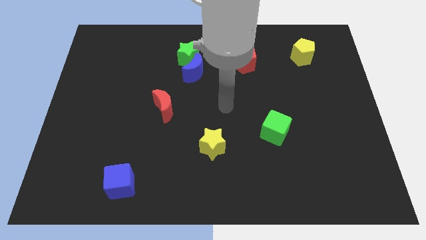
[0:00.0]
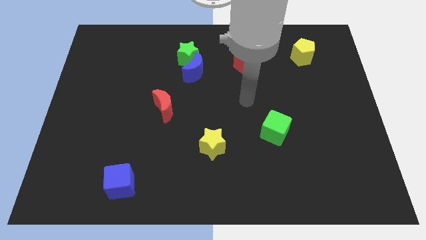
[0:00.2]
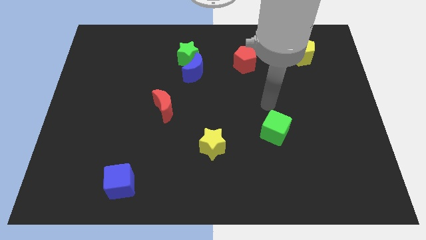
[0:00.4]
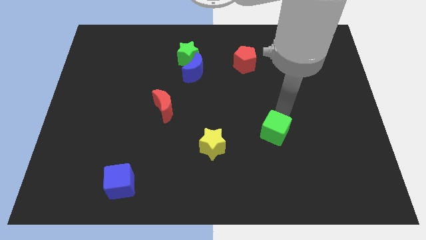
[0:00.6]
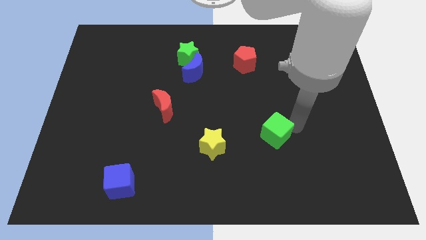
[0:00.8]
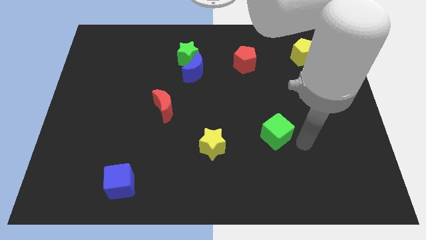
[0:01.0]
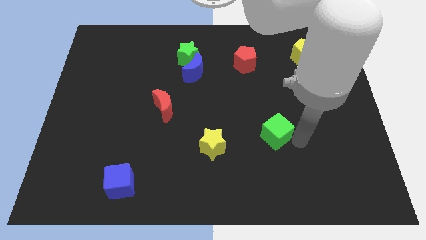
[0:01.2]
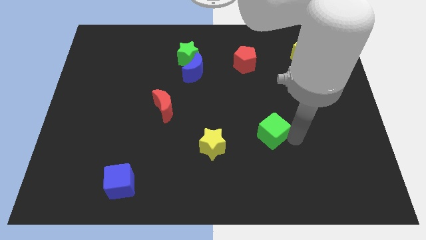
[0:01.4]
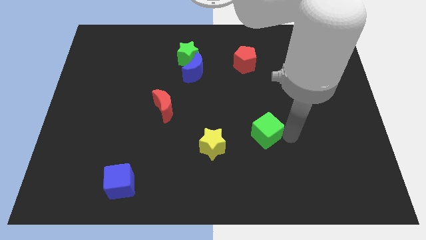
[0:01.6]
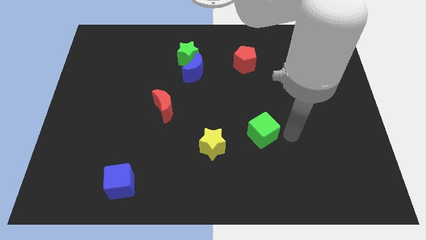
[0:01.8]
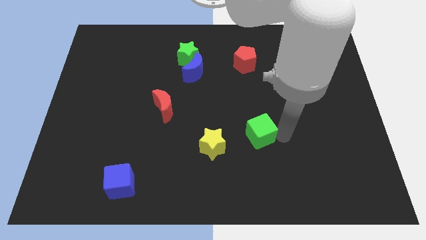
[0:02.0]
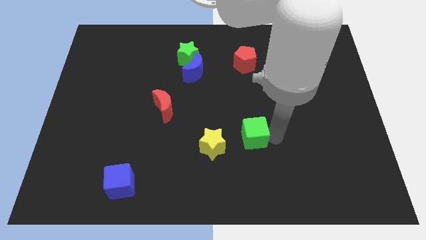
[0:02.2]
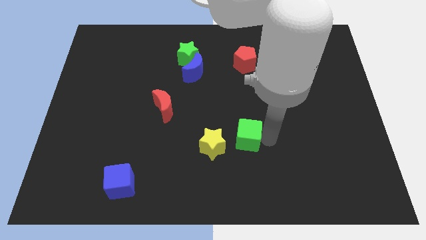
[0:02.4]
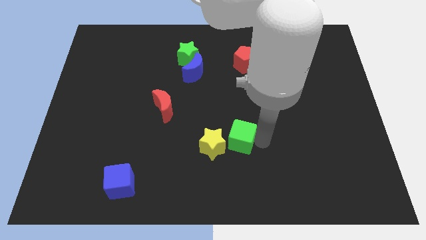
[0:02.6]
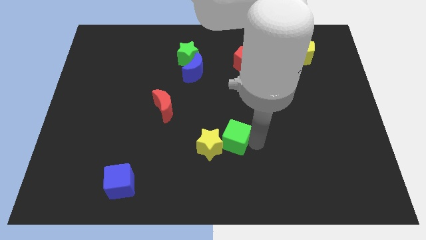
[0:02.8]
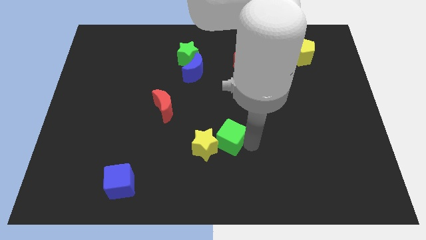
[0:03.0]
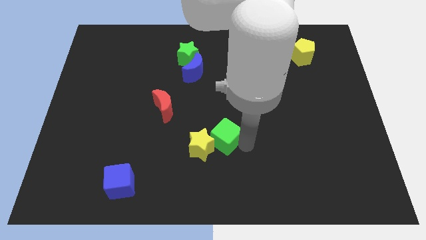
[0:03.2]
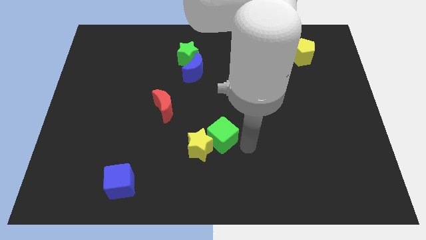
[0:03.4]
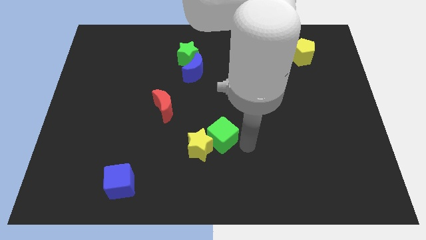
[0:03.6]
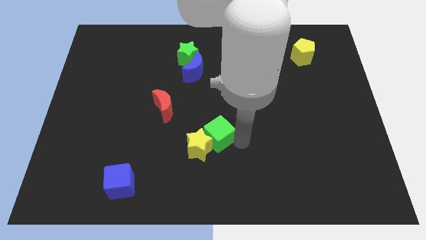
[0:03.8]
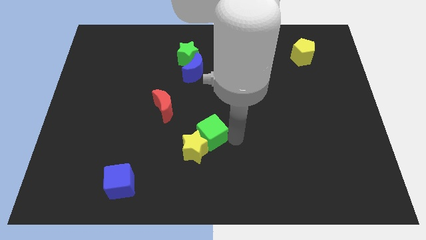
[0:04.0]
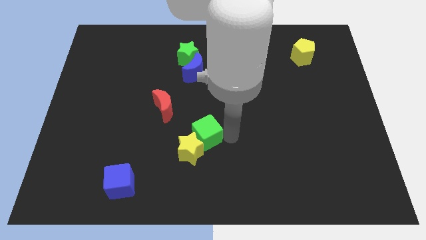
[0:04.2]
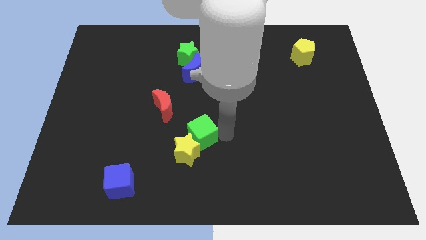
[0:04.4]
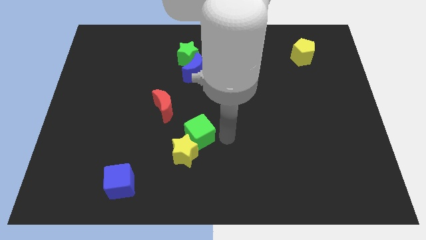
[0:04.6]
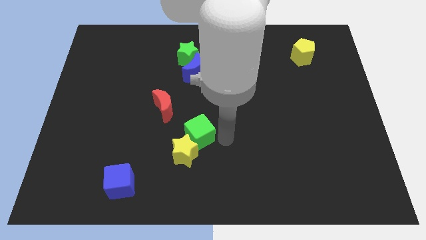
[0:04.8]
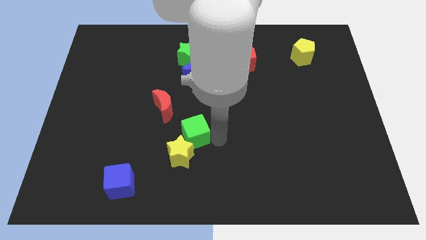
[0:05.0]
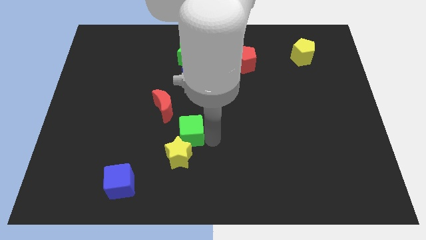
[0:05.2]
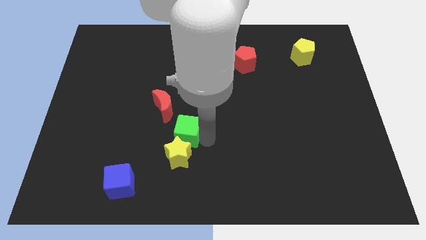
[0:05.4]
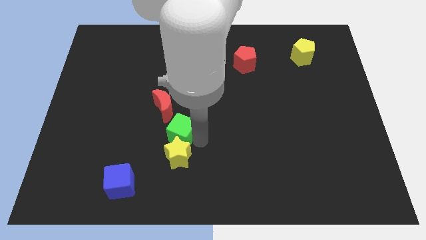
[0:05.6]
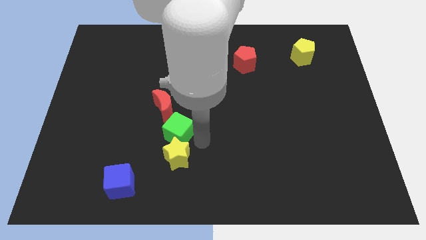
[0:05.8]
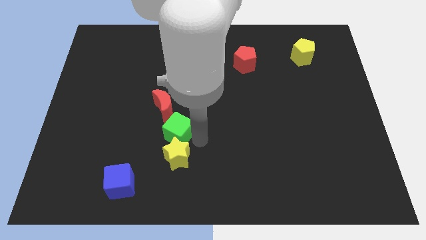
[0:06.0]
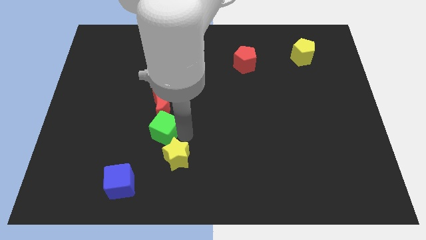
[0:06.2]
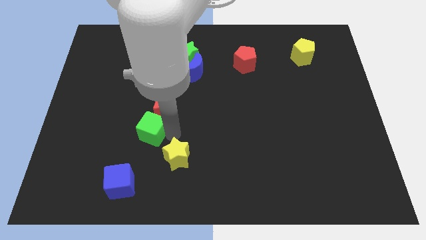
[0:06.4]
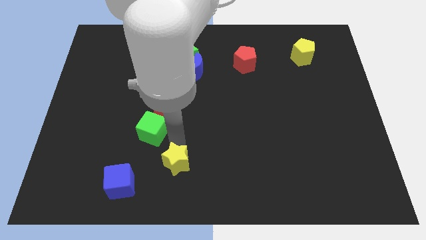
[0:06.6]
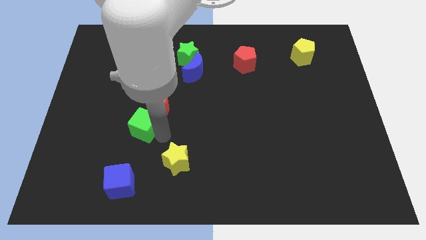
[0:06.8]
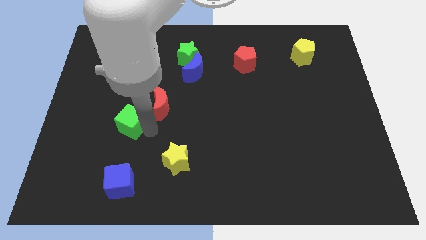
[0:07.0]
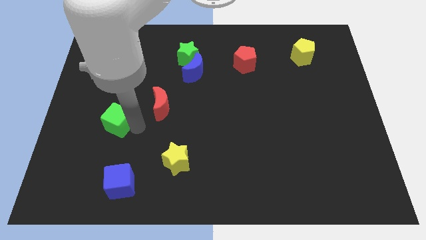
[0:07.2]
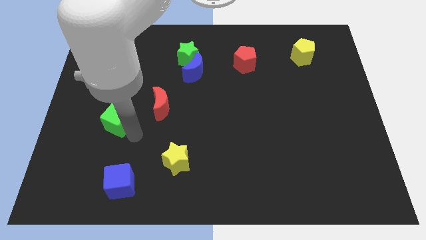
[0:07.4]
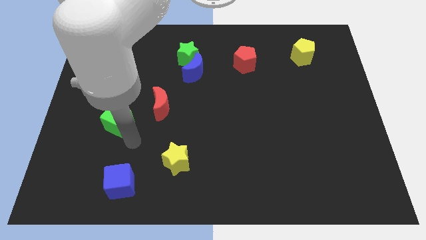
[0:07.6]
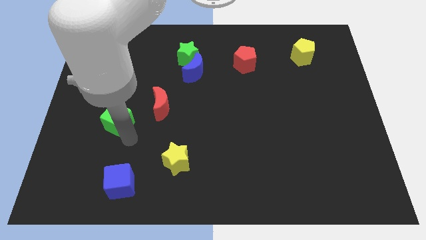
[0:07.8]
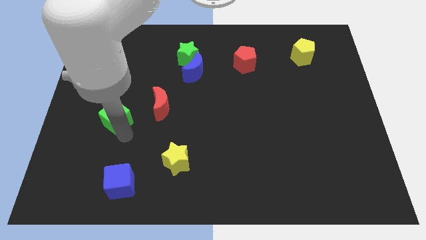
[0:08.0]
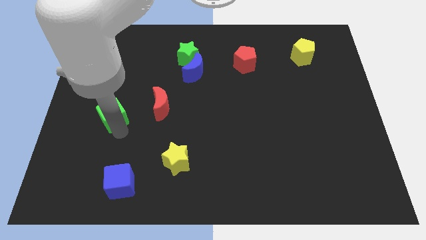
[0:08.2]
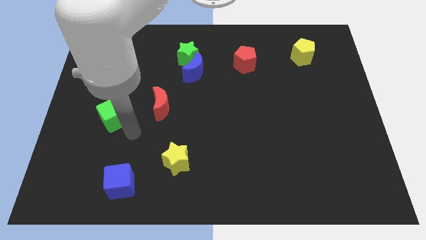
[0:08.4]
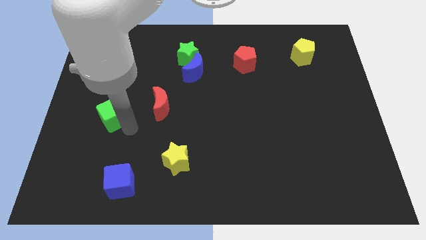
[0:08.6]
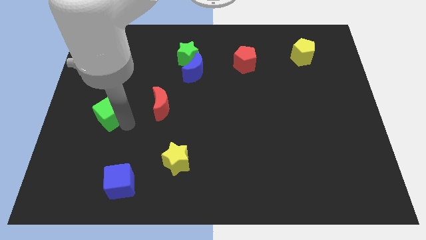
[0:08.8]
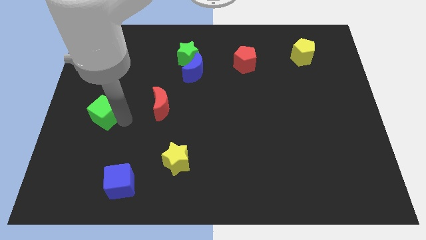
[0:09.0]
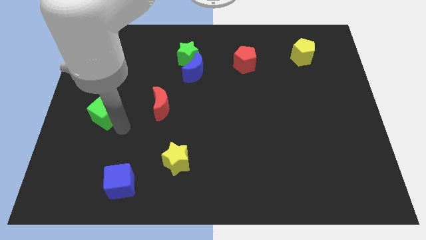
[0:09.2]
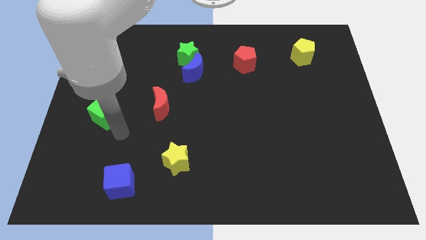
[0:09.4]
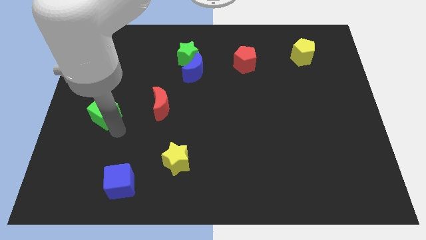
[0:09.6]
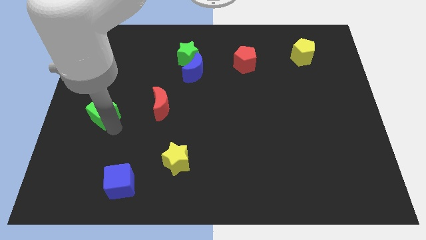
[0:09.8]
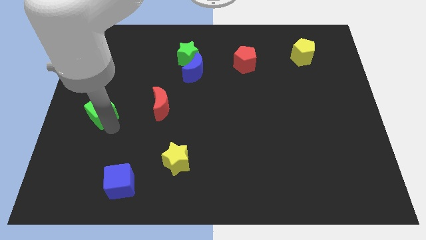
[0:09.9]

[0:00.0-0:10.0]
put the green cube to the left side

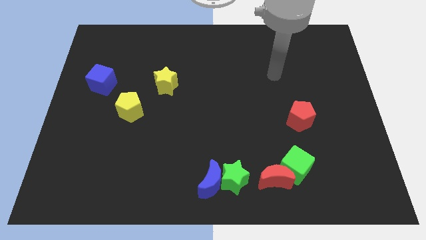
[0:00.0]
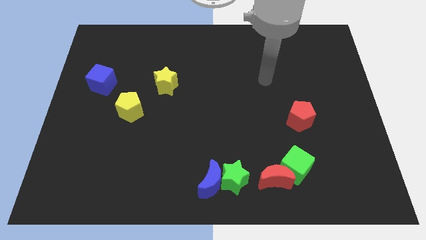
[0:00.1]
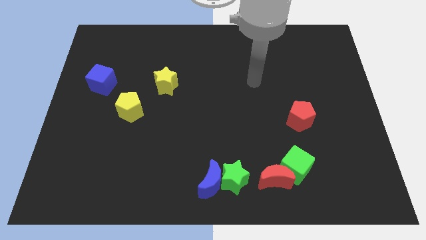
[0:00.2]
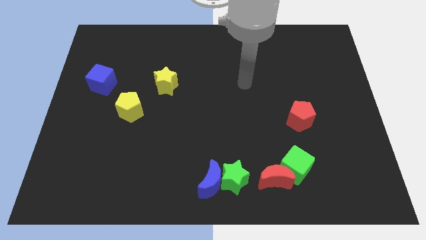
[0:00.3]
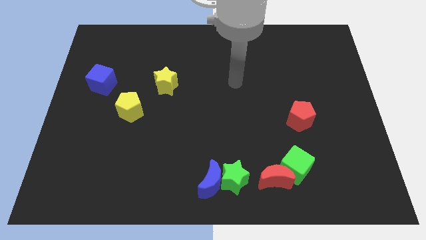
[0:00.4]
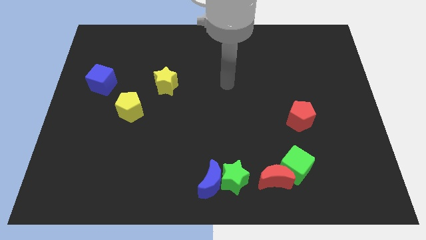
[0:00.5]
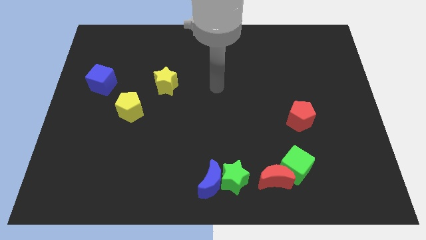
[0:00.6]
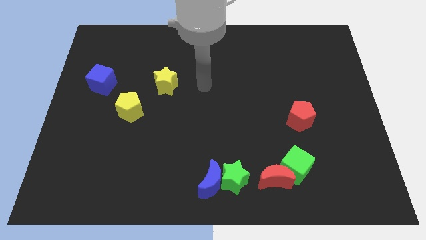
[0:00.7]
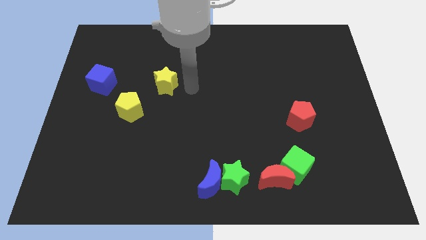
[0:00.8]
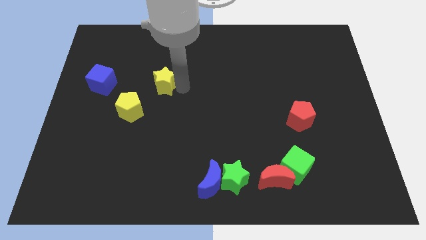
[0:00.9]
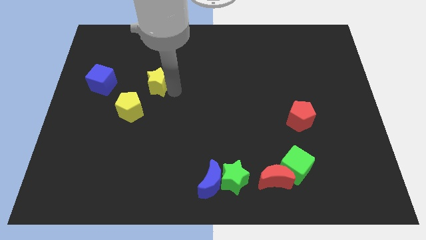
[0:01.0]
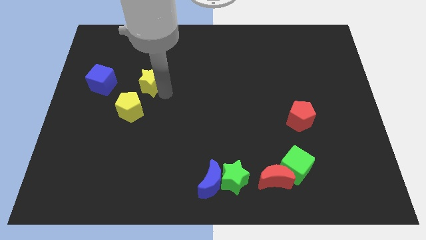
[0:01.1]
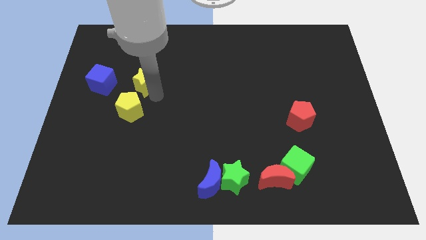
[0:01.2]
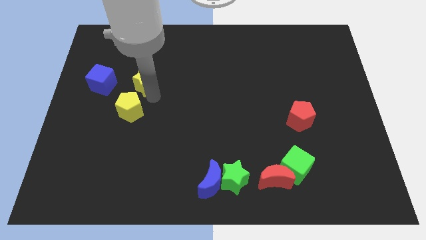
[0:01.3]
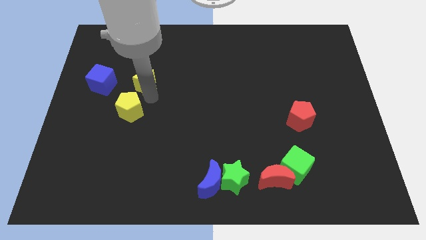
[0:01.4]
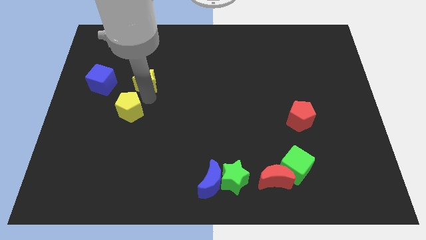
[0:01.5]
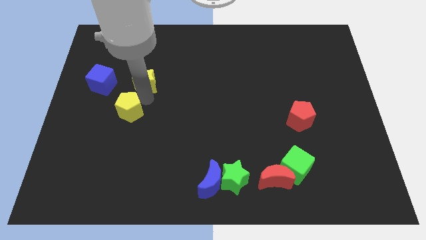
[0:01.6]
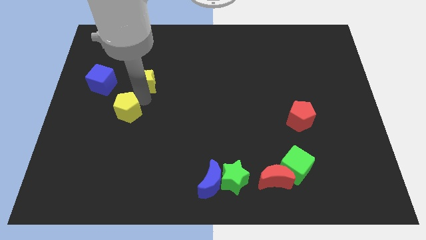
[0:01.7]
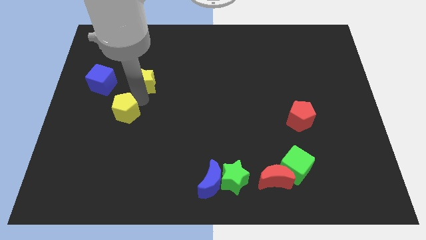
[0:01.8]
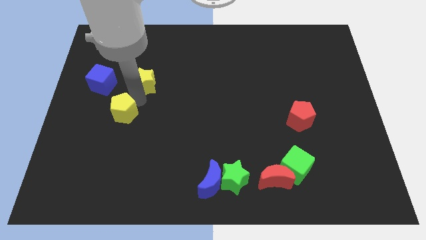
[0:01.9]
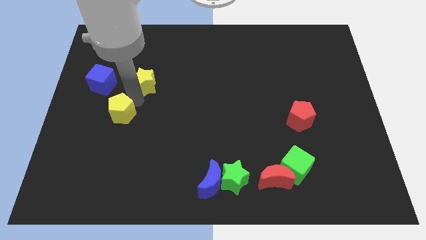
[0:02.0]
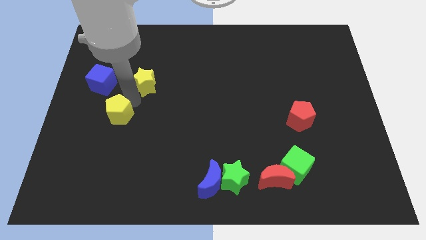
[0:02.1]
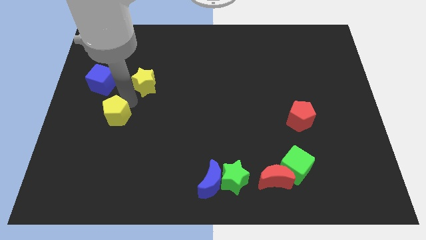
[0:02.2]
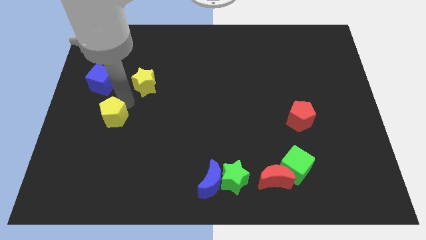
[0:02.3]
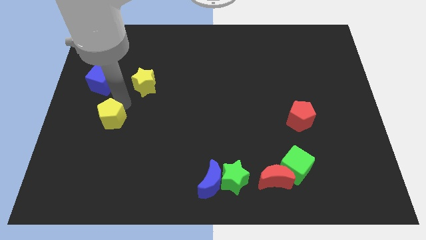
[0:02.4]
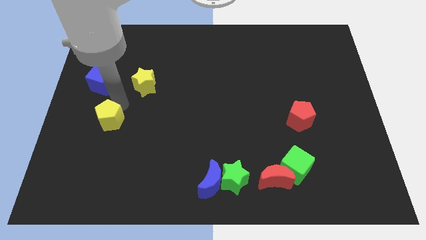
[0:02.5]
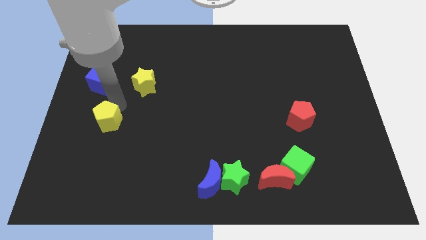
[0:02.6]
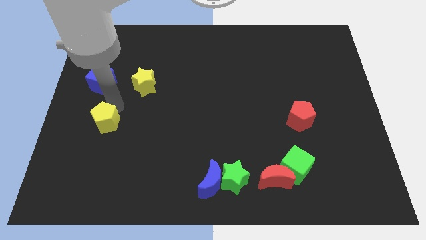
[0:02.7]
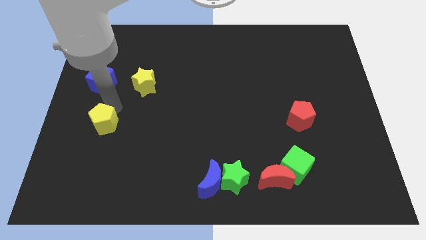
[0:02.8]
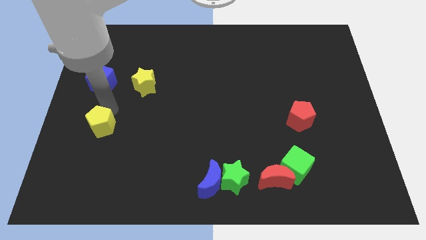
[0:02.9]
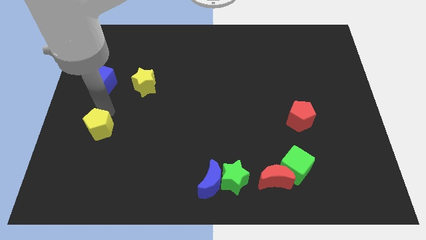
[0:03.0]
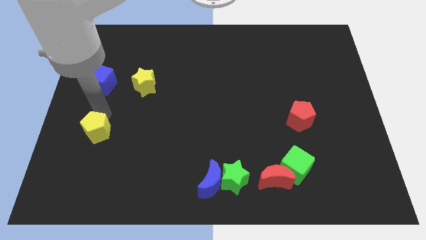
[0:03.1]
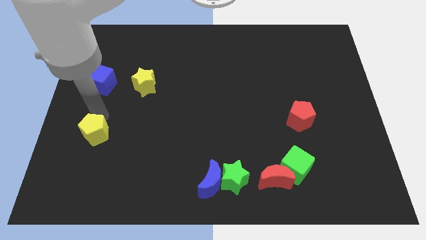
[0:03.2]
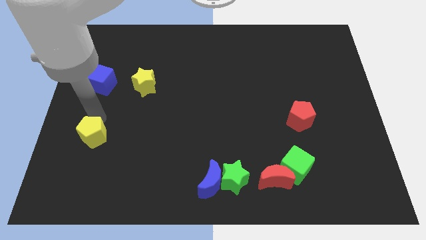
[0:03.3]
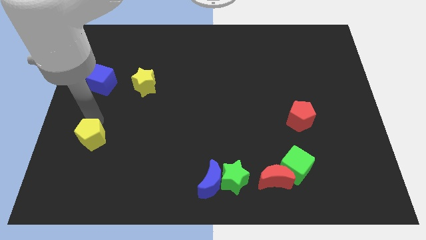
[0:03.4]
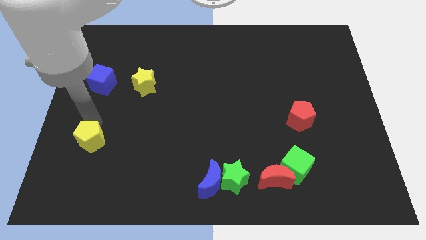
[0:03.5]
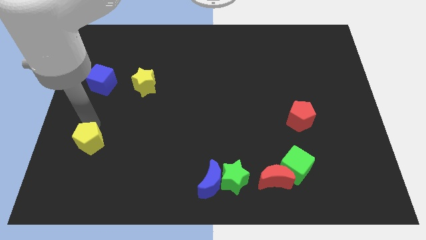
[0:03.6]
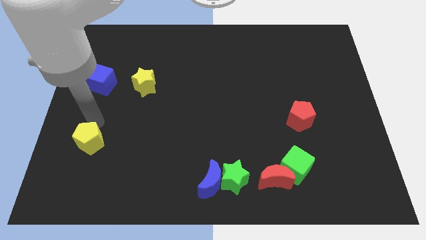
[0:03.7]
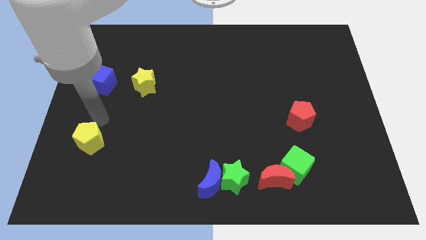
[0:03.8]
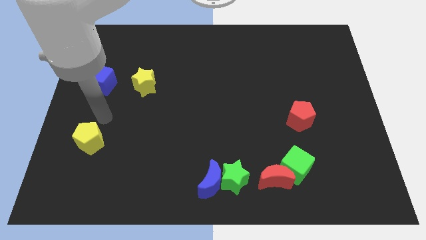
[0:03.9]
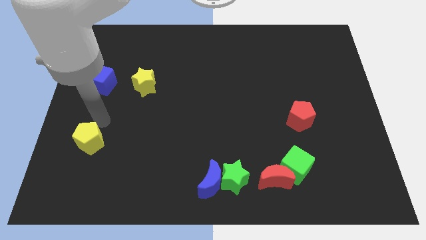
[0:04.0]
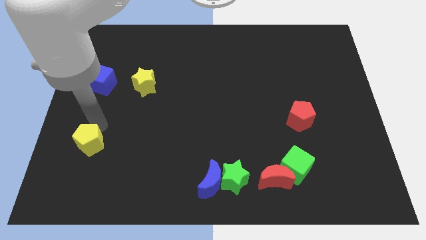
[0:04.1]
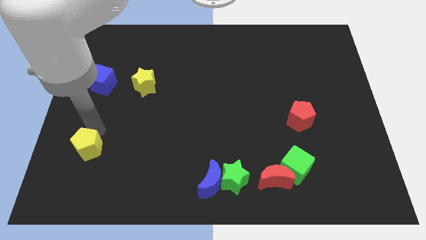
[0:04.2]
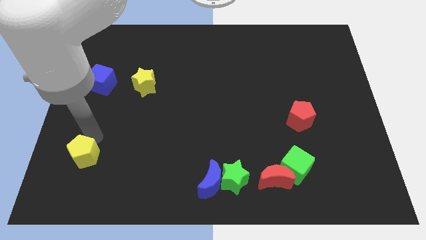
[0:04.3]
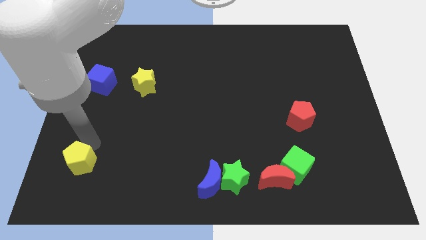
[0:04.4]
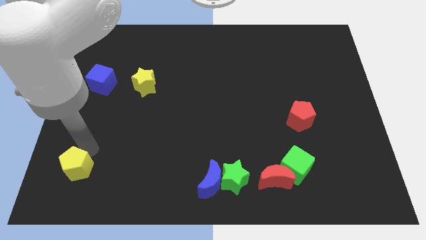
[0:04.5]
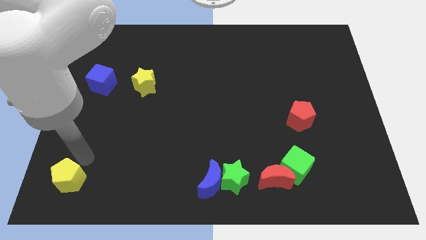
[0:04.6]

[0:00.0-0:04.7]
push the yellow pentagon to the bottom left of the board
